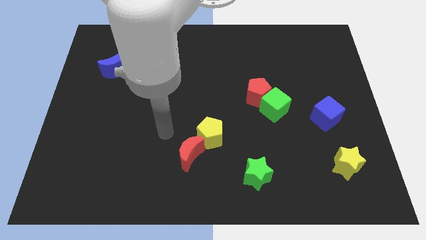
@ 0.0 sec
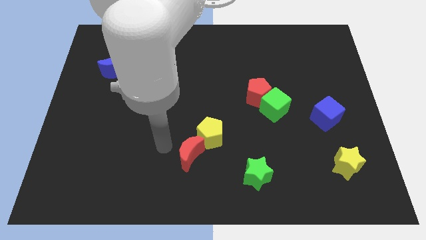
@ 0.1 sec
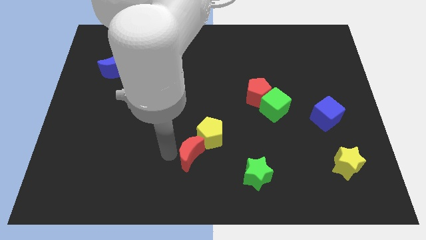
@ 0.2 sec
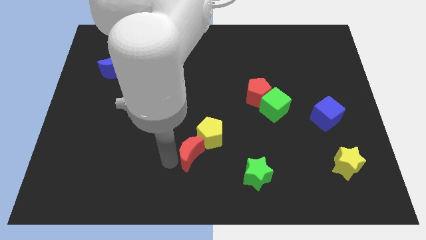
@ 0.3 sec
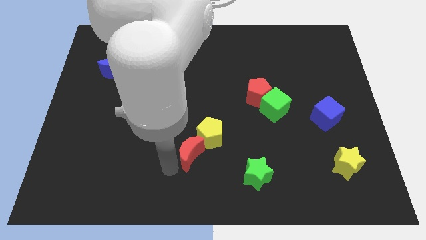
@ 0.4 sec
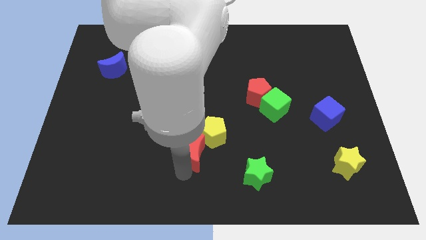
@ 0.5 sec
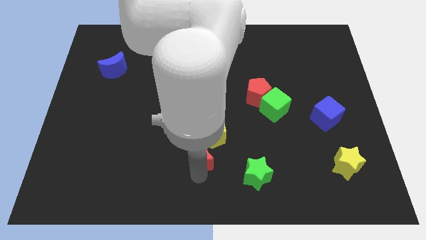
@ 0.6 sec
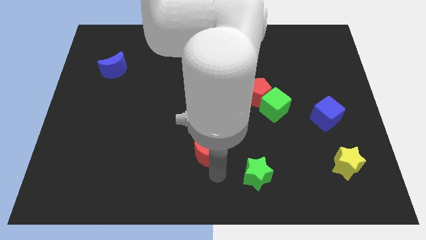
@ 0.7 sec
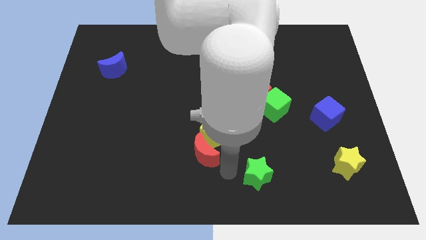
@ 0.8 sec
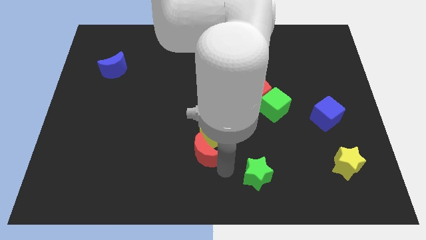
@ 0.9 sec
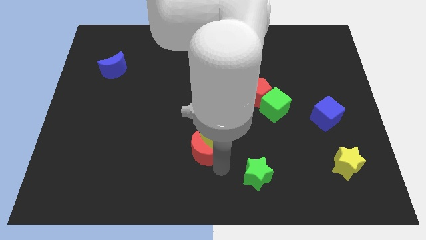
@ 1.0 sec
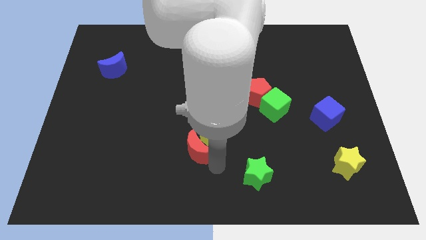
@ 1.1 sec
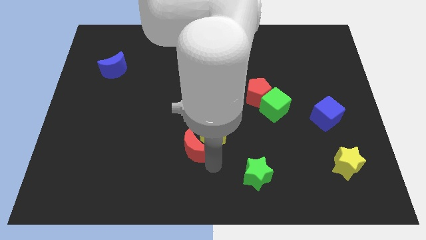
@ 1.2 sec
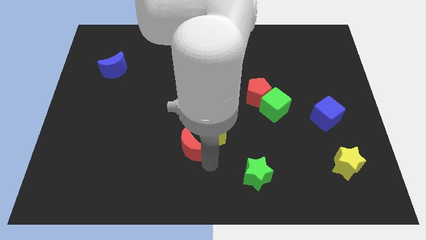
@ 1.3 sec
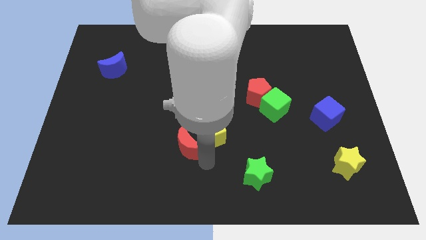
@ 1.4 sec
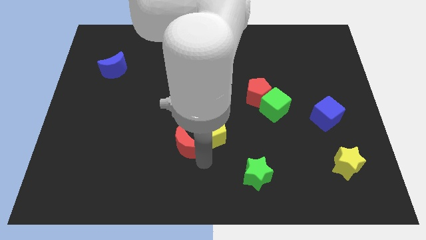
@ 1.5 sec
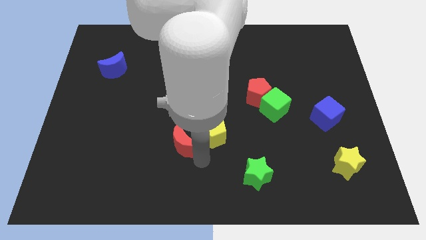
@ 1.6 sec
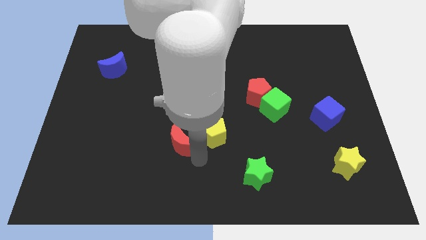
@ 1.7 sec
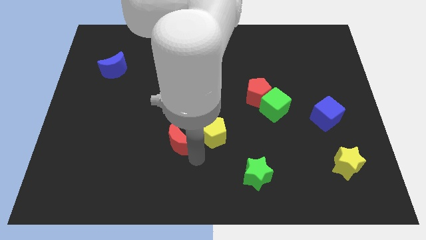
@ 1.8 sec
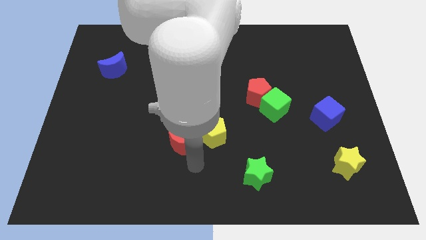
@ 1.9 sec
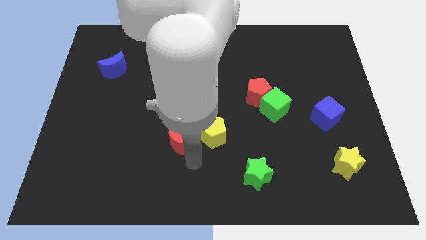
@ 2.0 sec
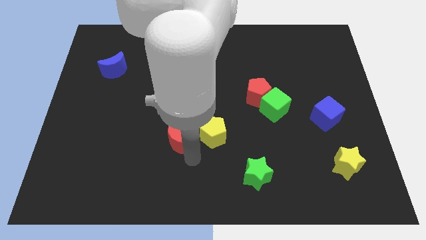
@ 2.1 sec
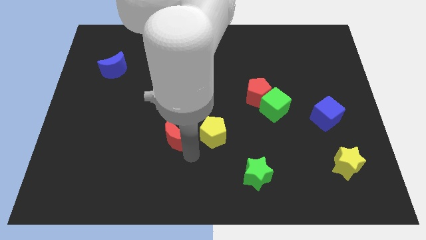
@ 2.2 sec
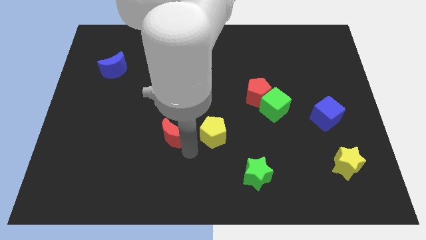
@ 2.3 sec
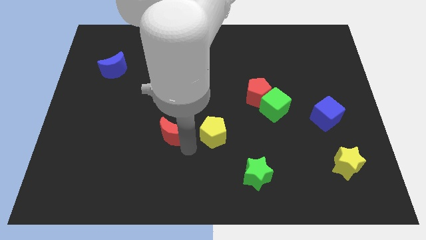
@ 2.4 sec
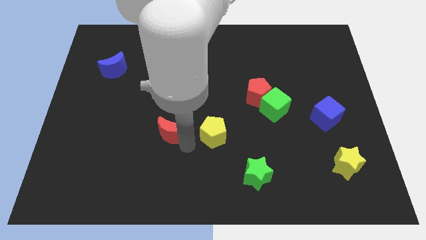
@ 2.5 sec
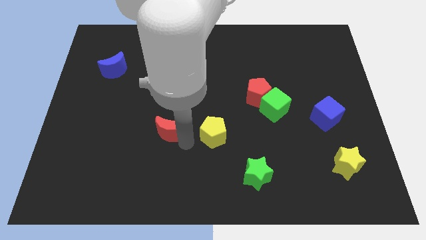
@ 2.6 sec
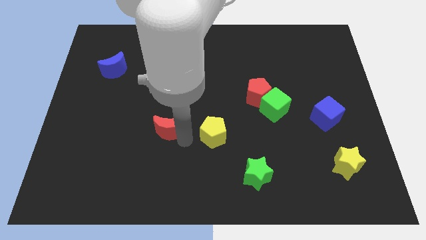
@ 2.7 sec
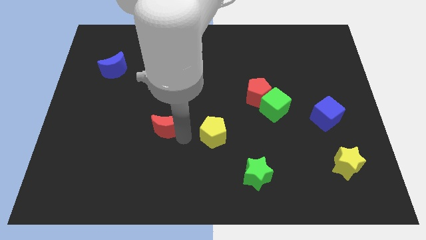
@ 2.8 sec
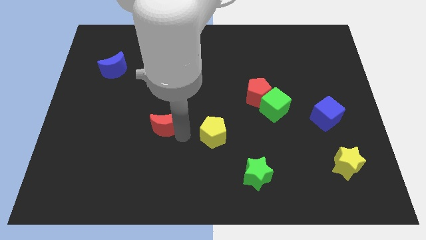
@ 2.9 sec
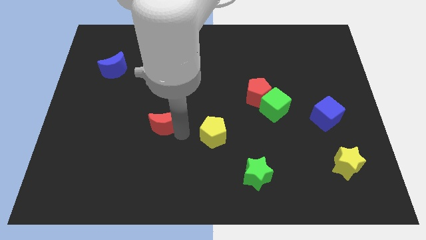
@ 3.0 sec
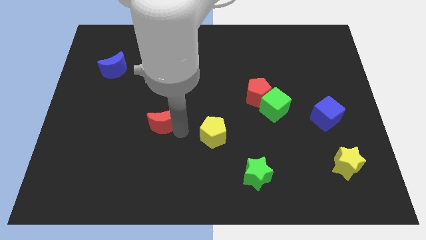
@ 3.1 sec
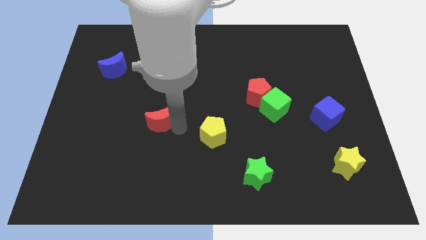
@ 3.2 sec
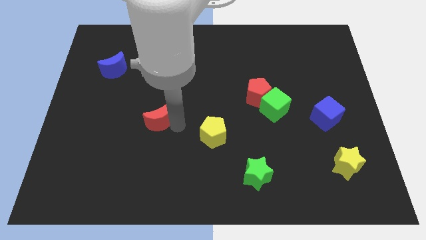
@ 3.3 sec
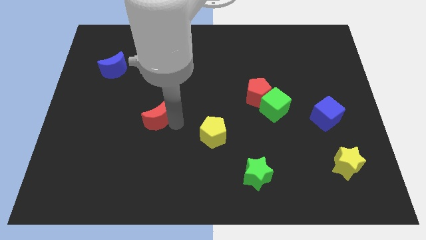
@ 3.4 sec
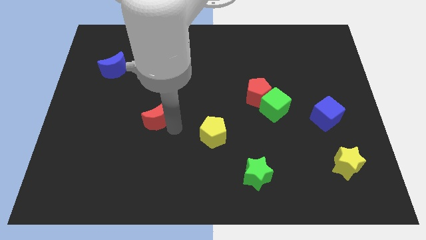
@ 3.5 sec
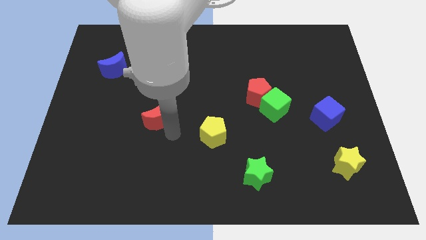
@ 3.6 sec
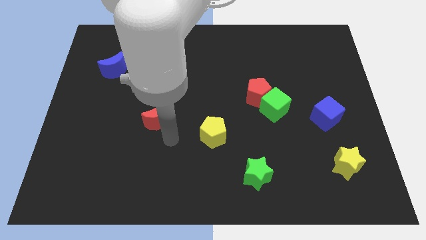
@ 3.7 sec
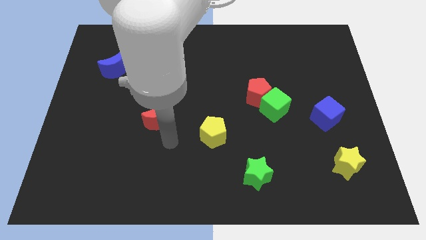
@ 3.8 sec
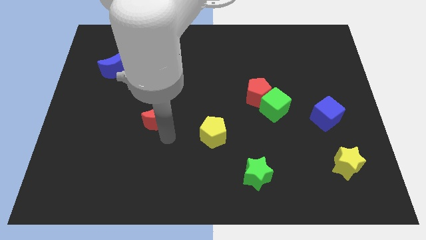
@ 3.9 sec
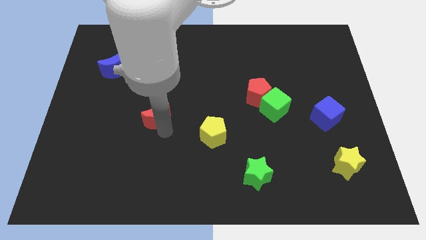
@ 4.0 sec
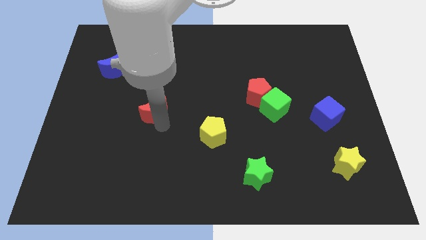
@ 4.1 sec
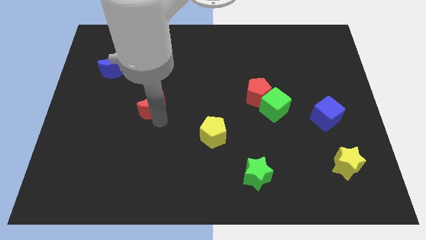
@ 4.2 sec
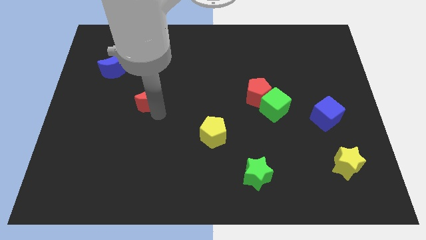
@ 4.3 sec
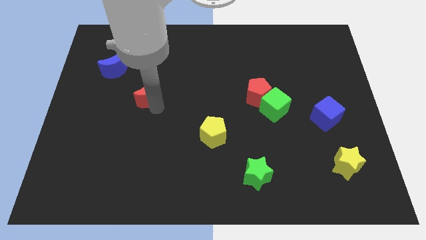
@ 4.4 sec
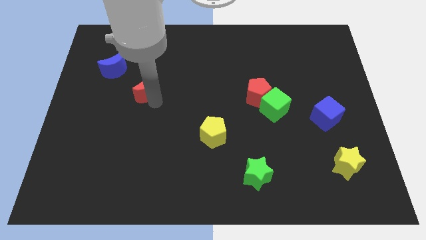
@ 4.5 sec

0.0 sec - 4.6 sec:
move the red moon diagonally down and to the right of the blue moon

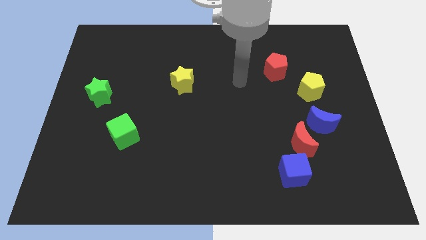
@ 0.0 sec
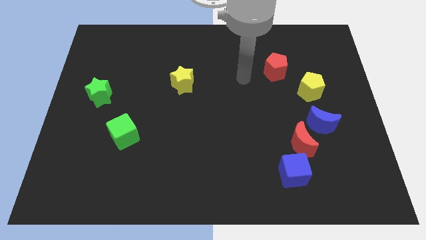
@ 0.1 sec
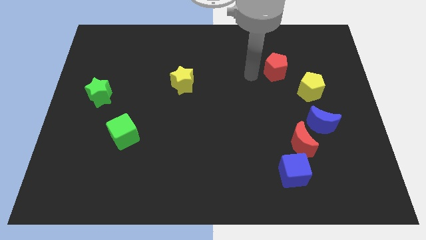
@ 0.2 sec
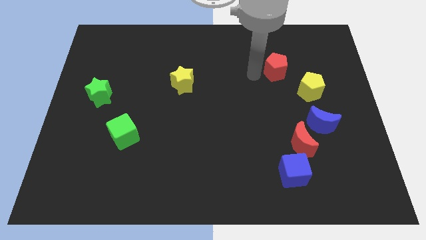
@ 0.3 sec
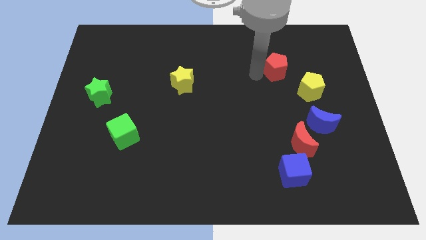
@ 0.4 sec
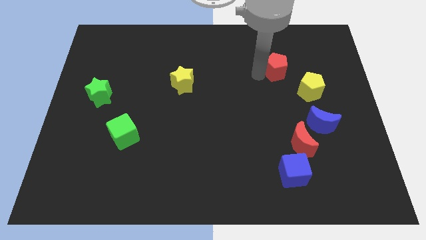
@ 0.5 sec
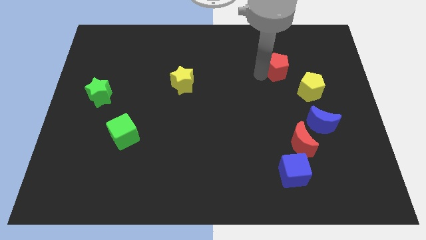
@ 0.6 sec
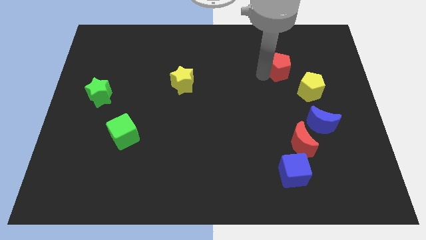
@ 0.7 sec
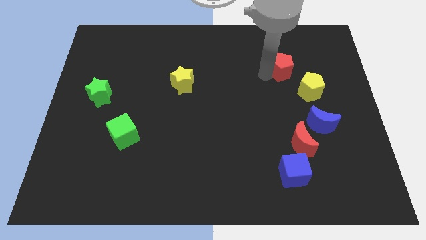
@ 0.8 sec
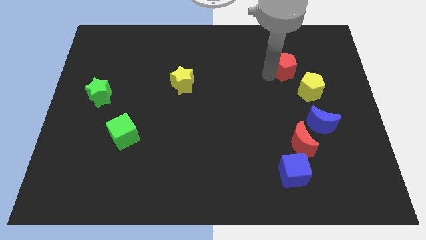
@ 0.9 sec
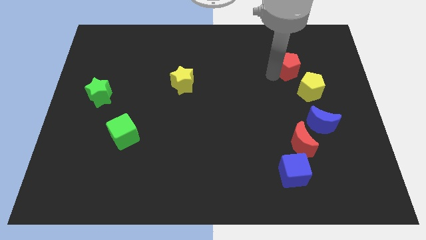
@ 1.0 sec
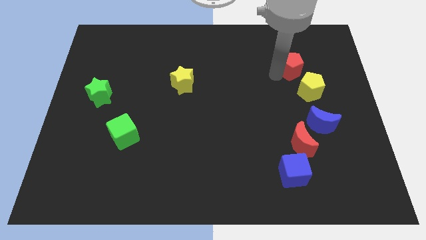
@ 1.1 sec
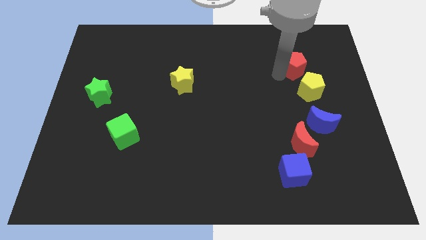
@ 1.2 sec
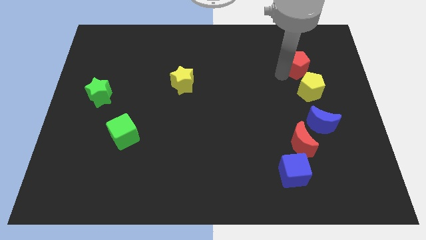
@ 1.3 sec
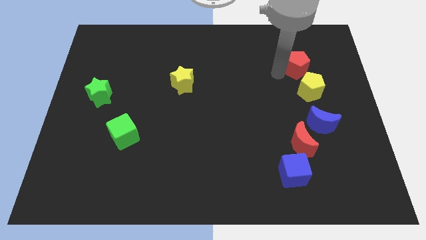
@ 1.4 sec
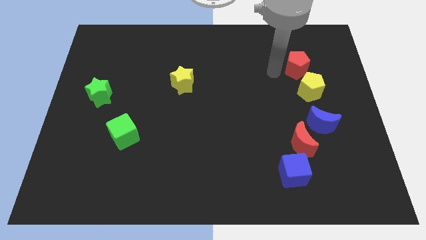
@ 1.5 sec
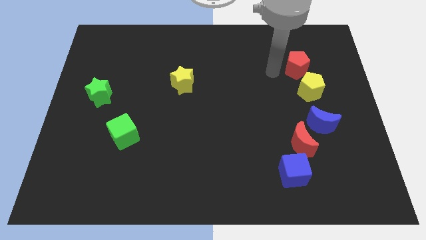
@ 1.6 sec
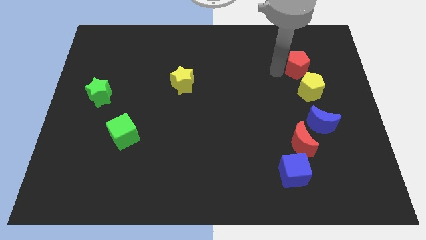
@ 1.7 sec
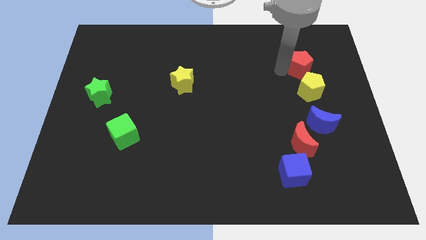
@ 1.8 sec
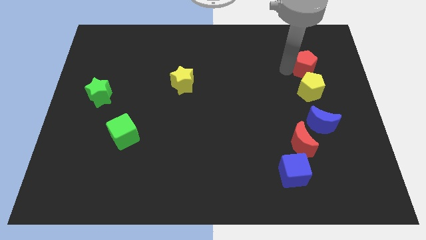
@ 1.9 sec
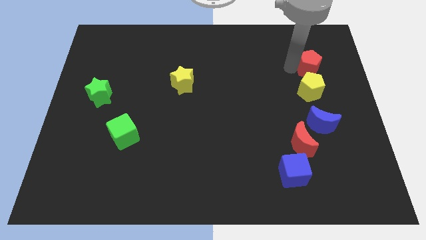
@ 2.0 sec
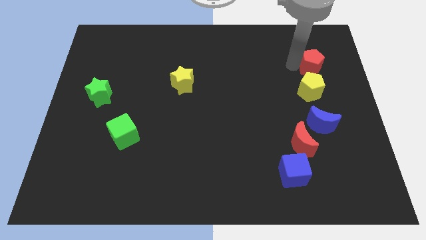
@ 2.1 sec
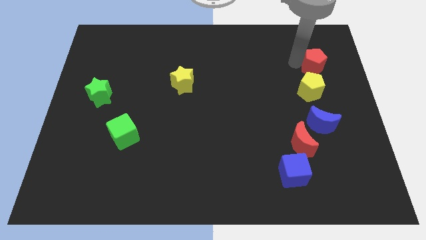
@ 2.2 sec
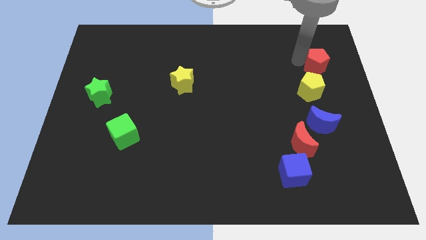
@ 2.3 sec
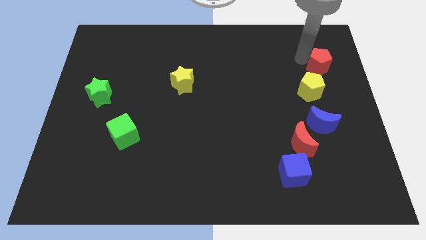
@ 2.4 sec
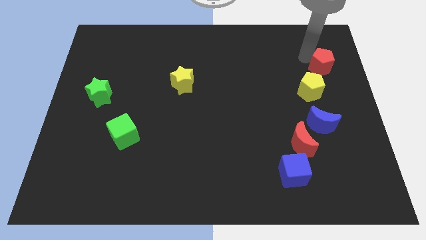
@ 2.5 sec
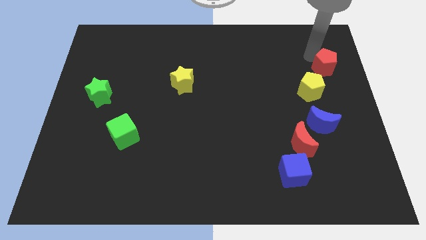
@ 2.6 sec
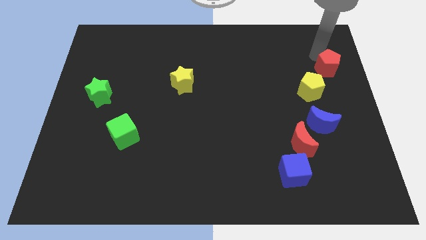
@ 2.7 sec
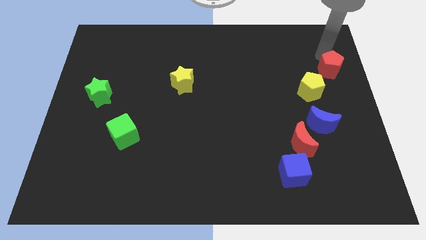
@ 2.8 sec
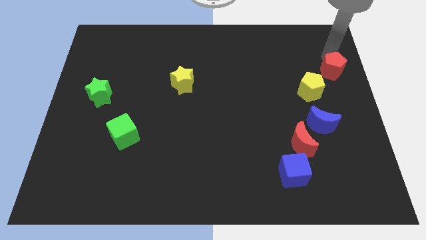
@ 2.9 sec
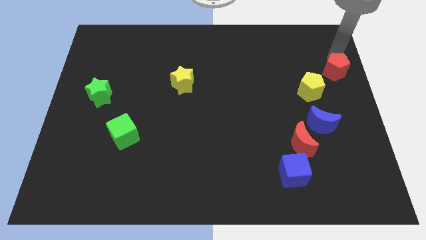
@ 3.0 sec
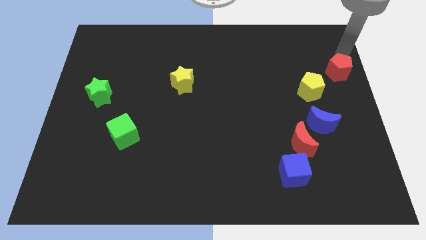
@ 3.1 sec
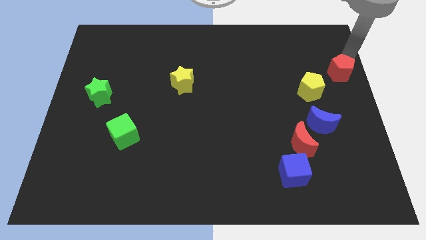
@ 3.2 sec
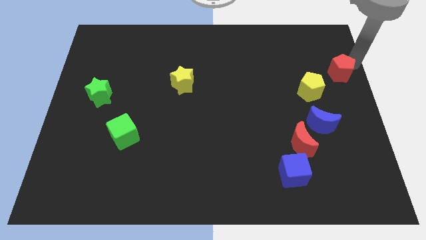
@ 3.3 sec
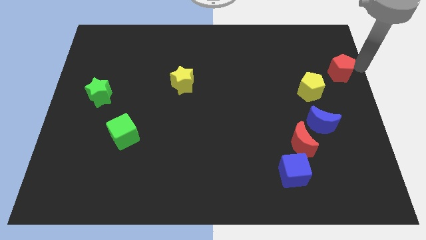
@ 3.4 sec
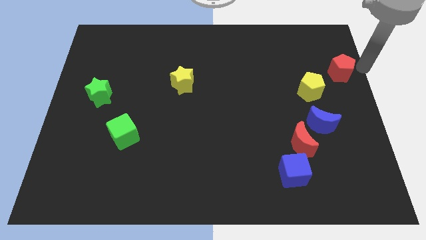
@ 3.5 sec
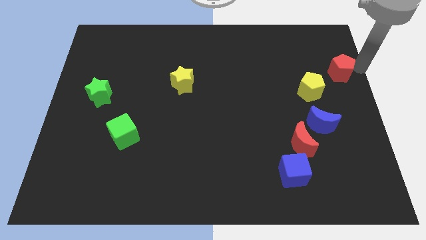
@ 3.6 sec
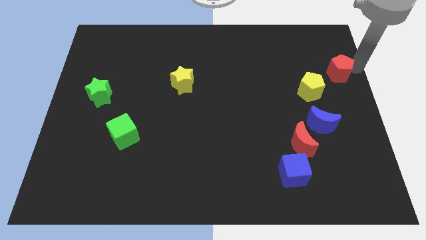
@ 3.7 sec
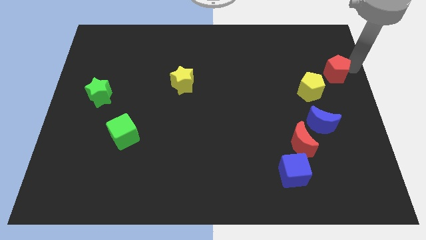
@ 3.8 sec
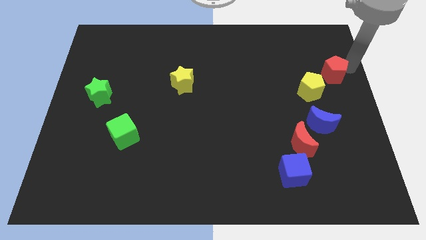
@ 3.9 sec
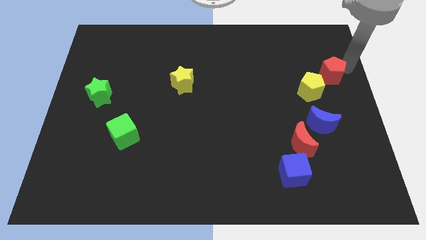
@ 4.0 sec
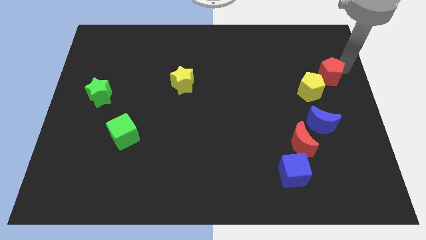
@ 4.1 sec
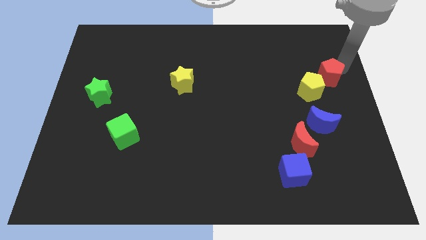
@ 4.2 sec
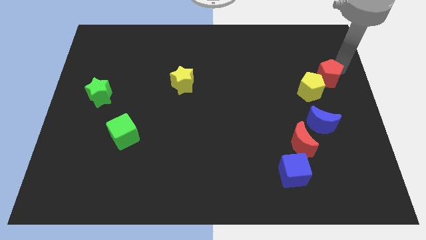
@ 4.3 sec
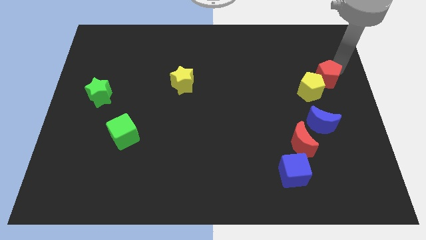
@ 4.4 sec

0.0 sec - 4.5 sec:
slide the red pentagon above the blue moon
